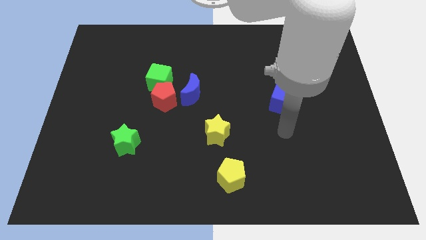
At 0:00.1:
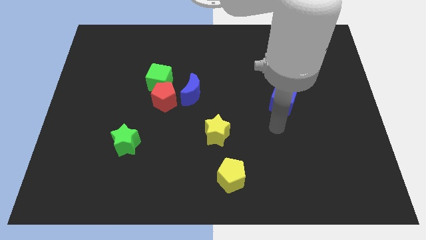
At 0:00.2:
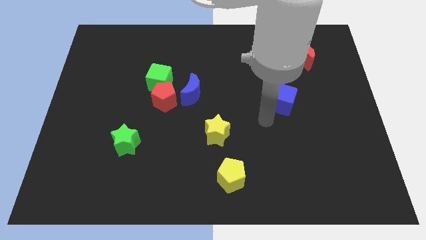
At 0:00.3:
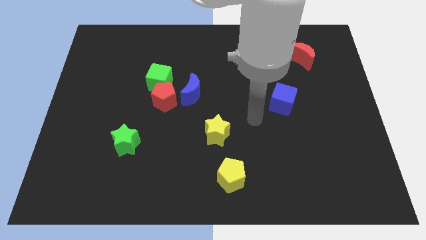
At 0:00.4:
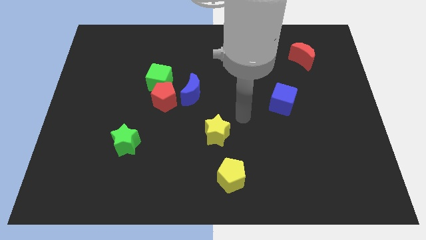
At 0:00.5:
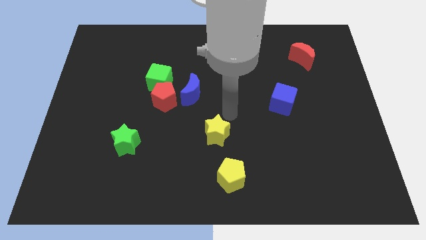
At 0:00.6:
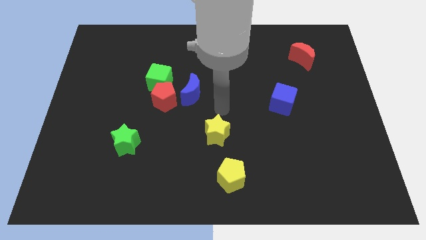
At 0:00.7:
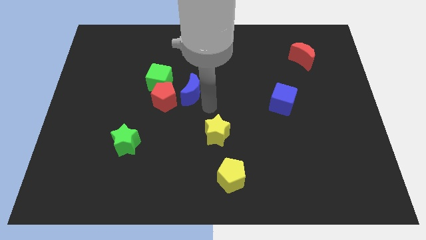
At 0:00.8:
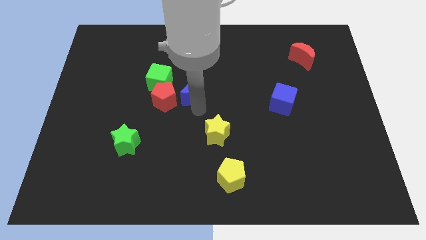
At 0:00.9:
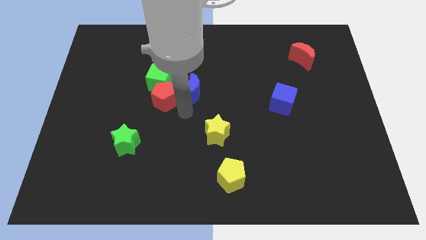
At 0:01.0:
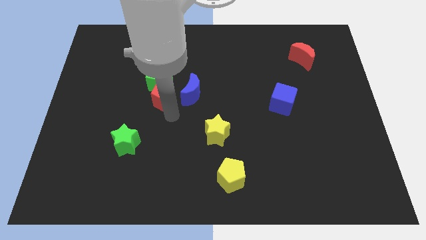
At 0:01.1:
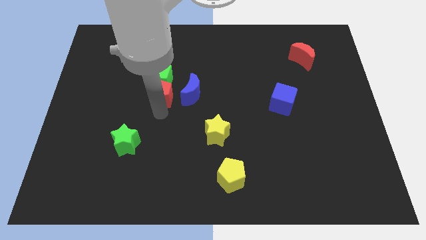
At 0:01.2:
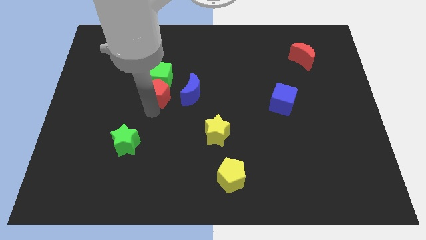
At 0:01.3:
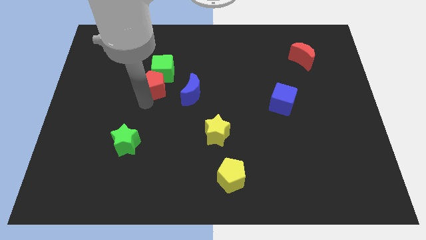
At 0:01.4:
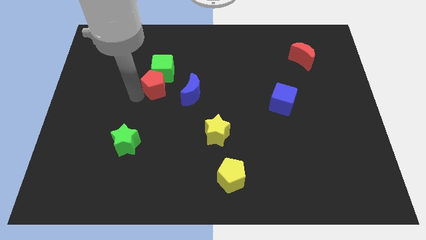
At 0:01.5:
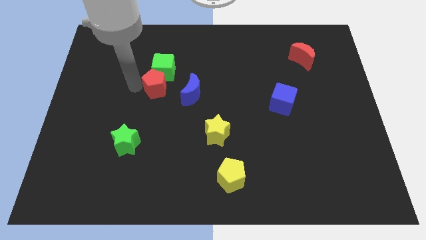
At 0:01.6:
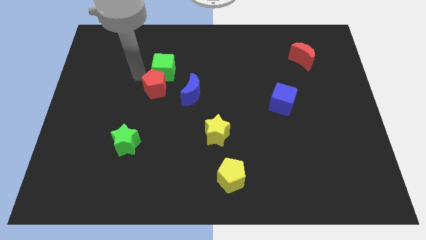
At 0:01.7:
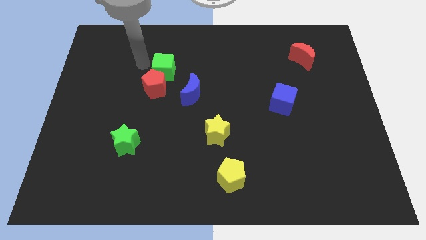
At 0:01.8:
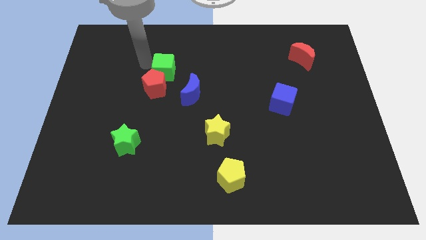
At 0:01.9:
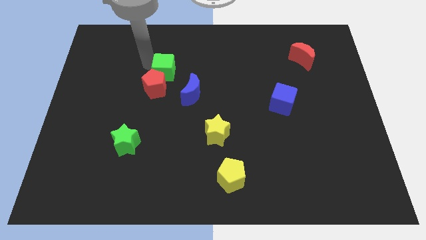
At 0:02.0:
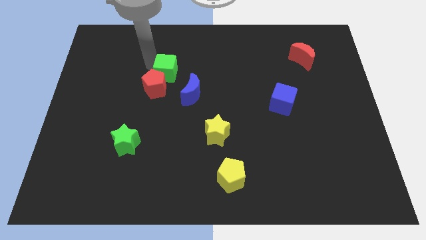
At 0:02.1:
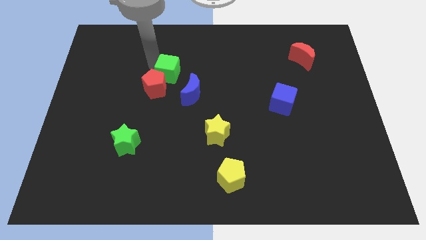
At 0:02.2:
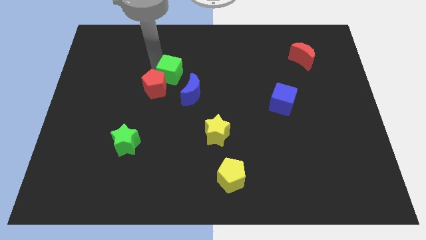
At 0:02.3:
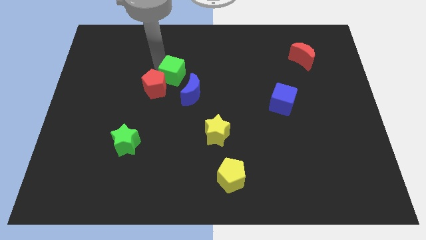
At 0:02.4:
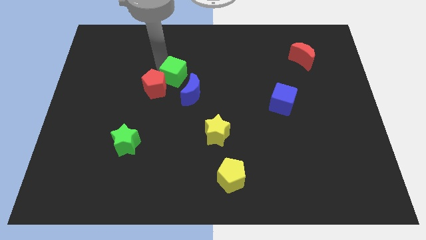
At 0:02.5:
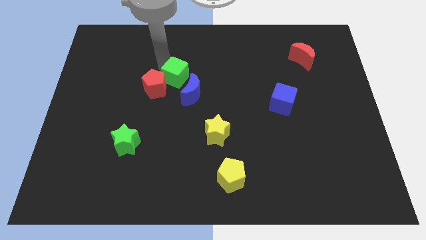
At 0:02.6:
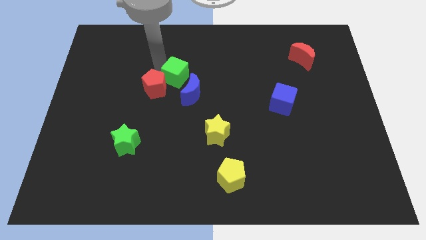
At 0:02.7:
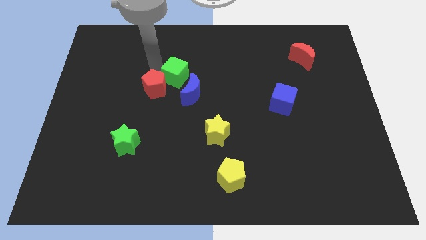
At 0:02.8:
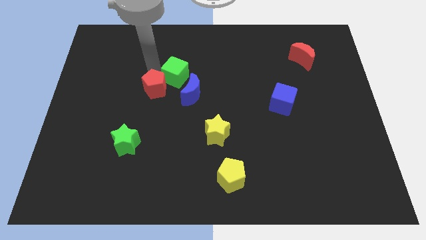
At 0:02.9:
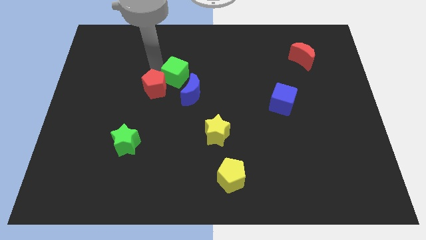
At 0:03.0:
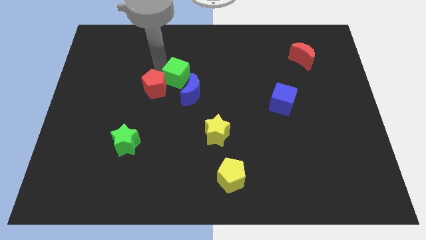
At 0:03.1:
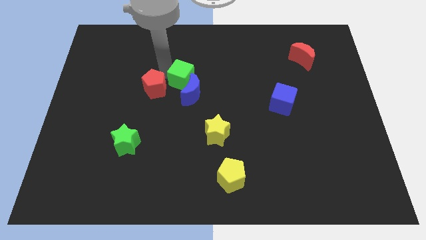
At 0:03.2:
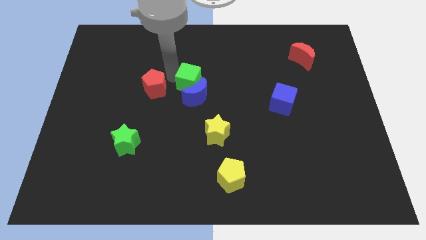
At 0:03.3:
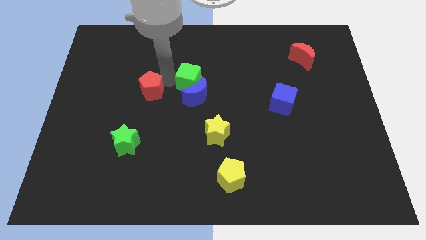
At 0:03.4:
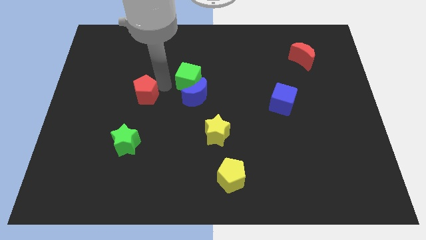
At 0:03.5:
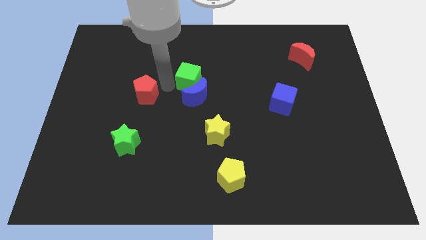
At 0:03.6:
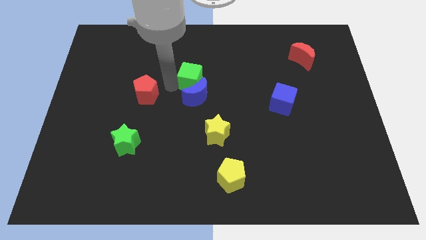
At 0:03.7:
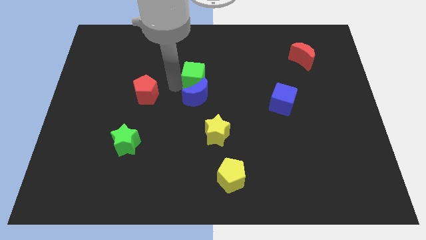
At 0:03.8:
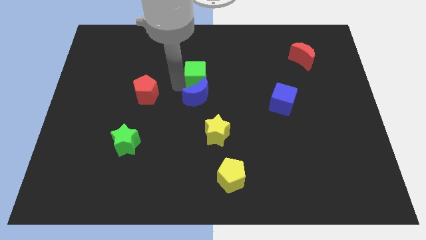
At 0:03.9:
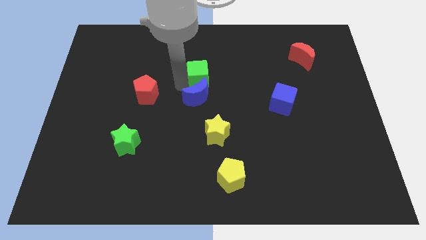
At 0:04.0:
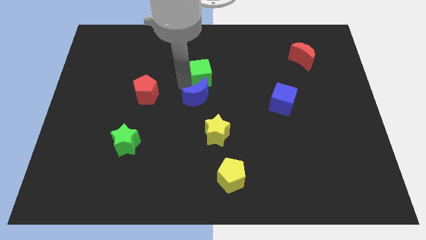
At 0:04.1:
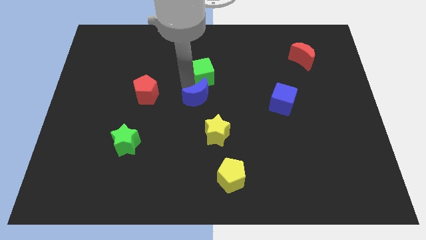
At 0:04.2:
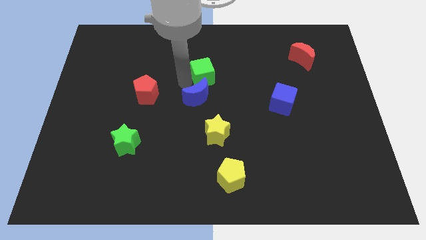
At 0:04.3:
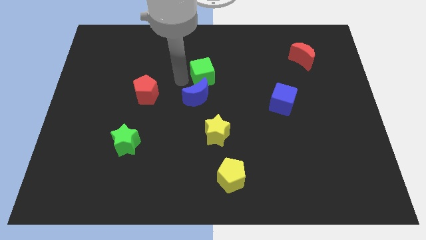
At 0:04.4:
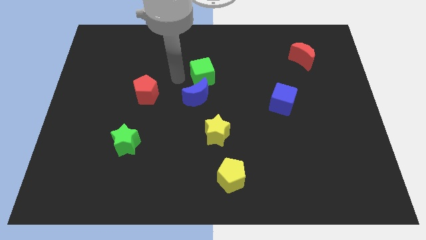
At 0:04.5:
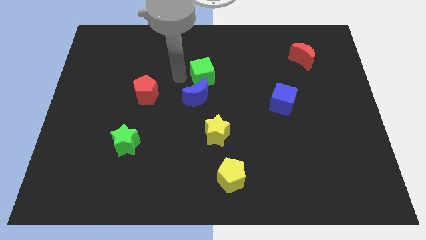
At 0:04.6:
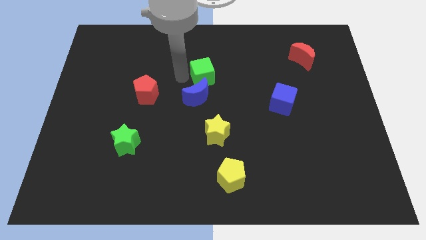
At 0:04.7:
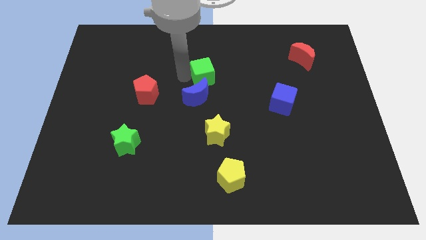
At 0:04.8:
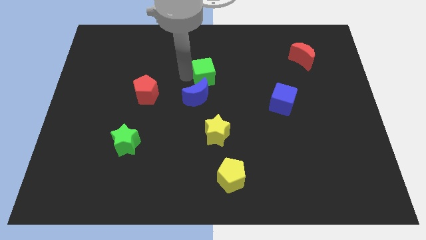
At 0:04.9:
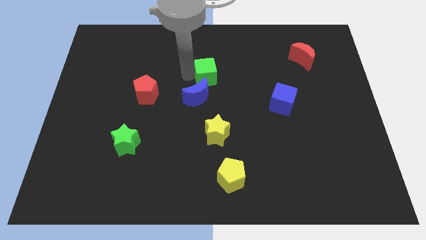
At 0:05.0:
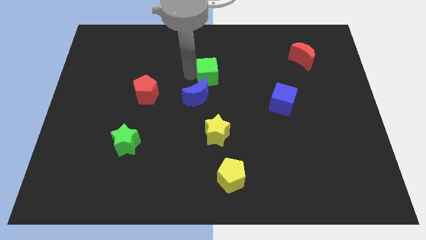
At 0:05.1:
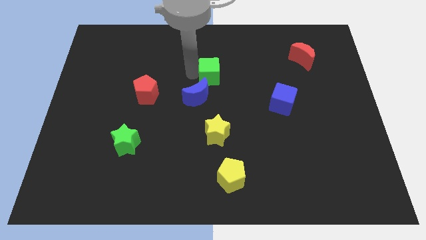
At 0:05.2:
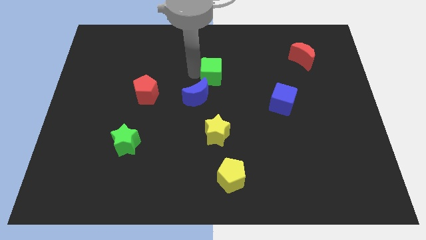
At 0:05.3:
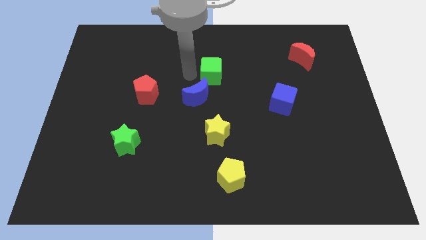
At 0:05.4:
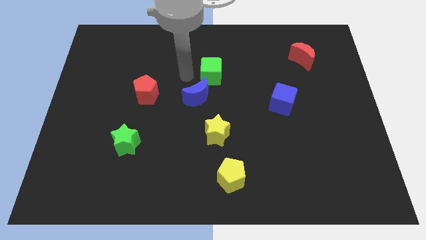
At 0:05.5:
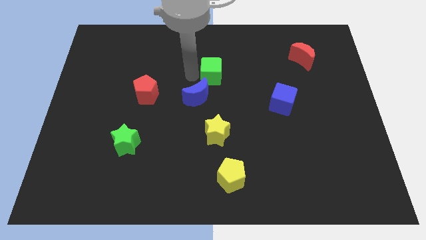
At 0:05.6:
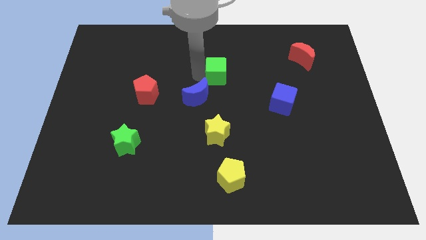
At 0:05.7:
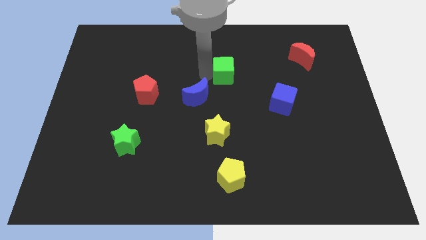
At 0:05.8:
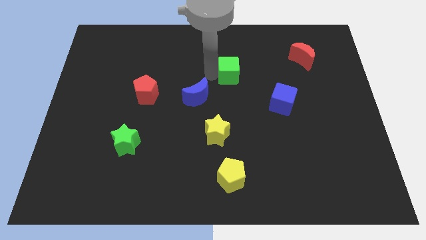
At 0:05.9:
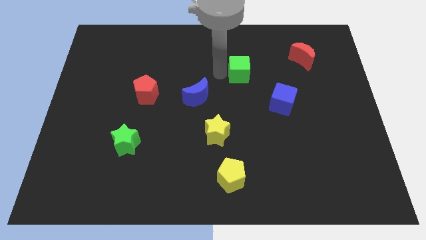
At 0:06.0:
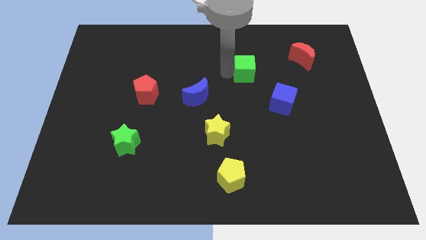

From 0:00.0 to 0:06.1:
push the green cube right

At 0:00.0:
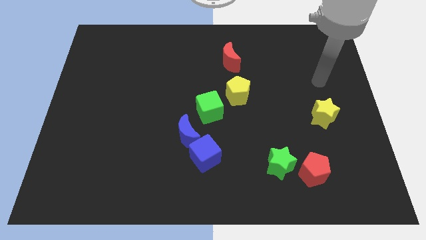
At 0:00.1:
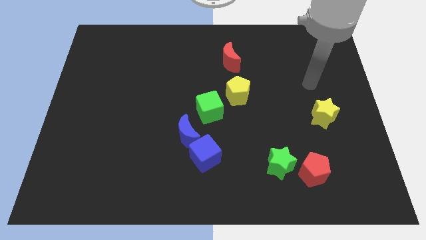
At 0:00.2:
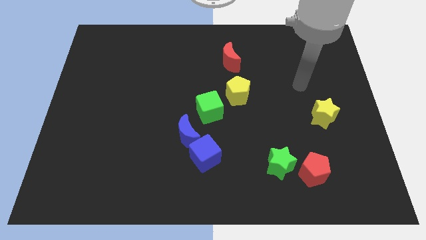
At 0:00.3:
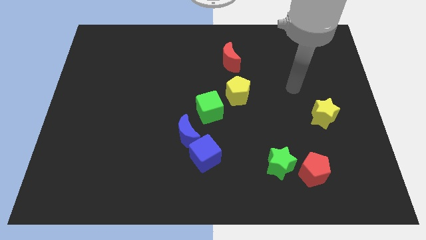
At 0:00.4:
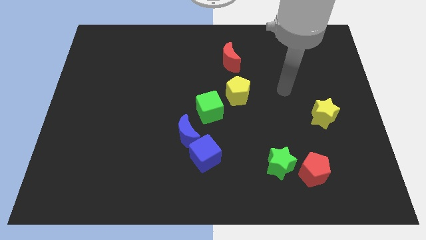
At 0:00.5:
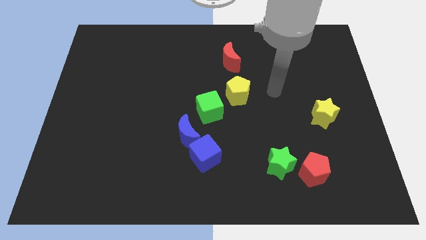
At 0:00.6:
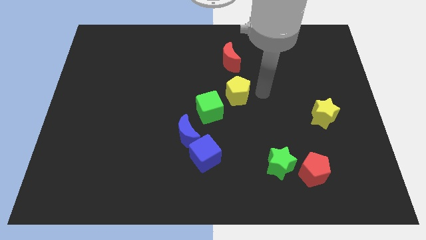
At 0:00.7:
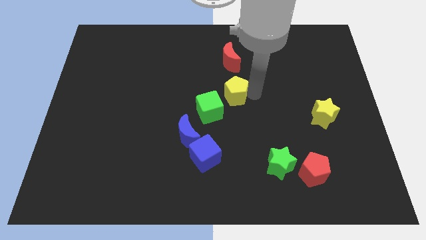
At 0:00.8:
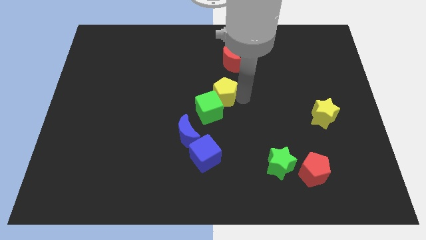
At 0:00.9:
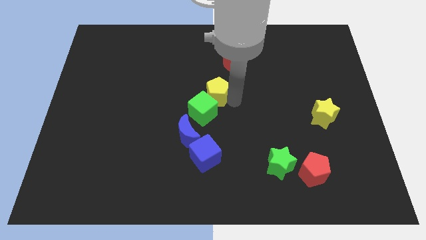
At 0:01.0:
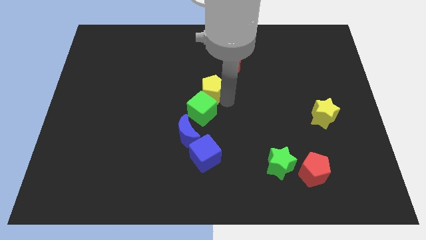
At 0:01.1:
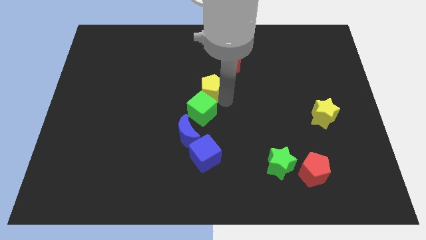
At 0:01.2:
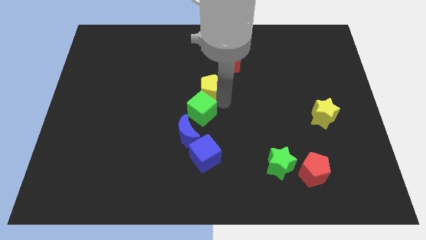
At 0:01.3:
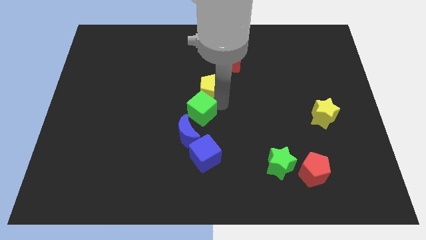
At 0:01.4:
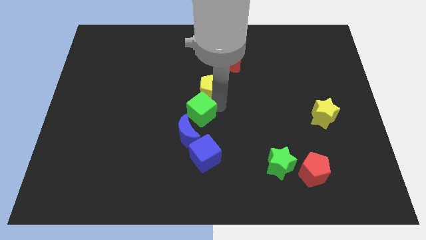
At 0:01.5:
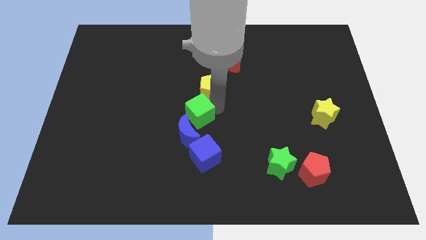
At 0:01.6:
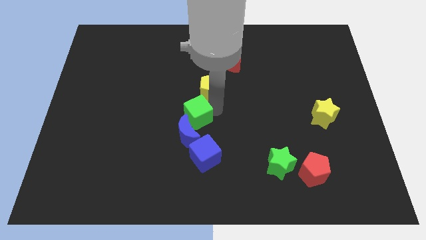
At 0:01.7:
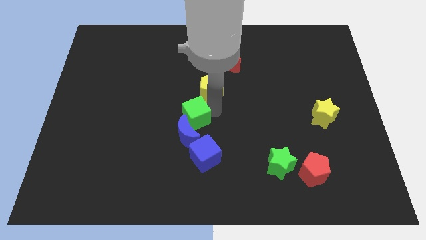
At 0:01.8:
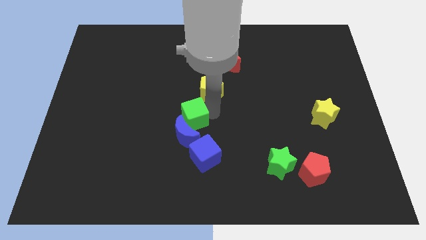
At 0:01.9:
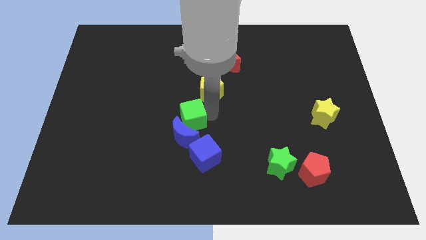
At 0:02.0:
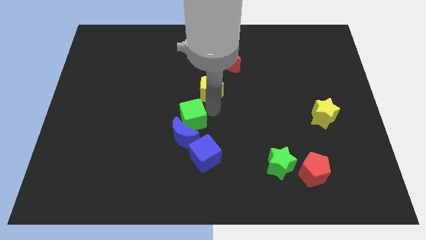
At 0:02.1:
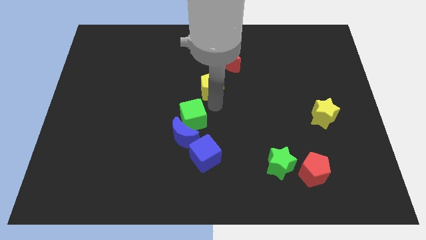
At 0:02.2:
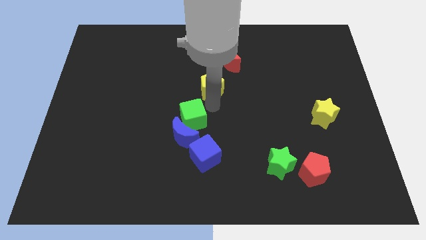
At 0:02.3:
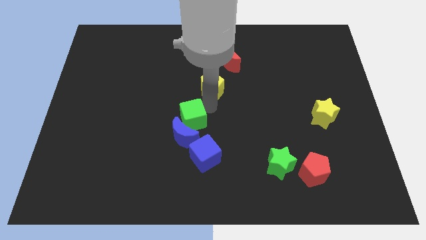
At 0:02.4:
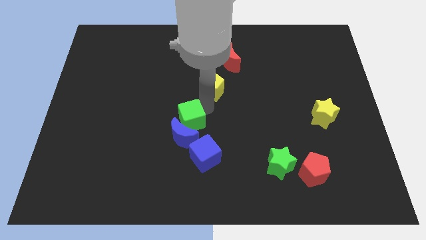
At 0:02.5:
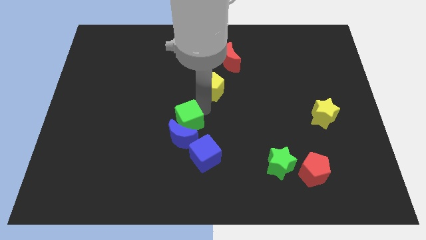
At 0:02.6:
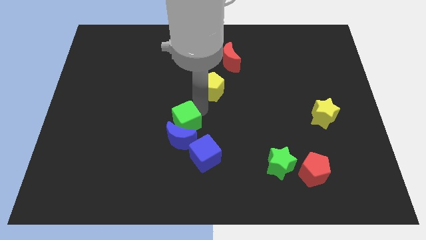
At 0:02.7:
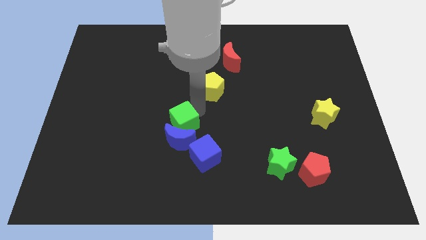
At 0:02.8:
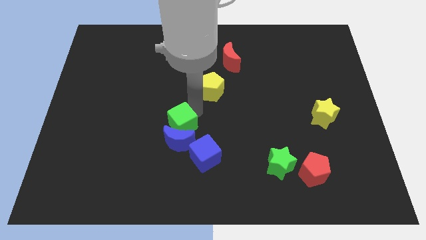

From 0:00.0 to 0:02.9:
slide the green cube slightly downwards and left diagonally
